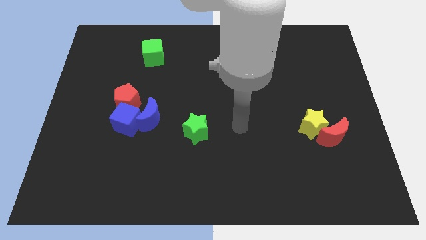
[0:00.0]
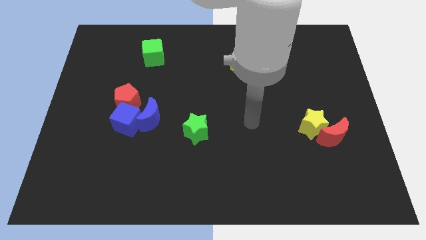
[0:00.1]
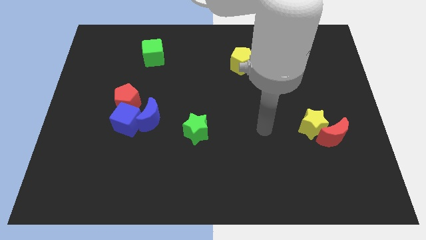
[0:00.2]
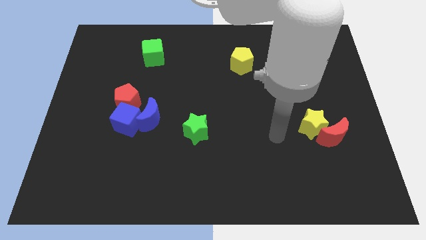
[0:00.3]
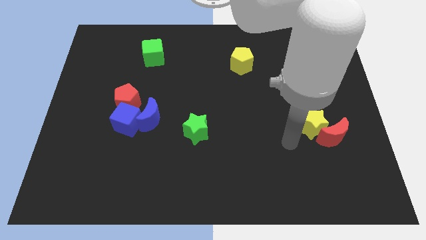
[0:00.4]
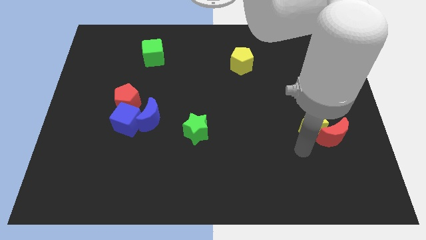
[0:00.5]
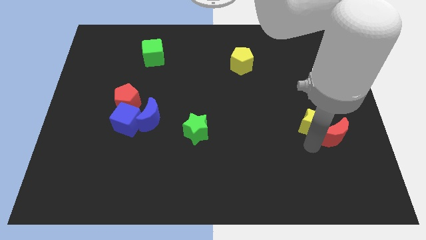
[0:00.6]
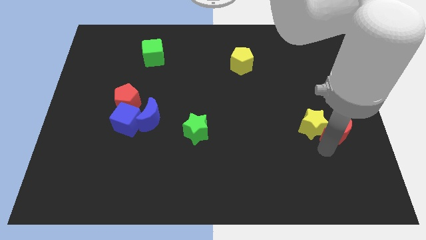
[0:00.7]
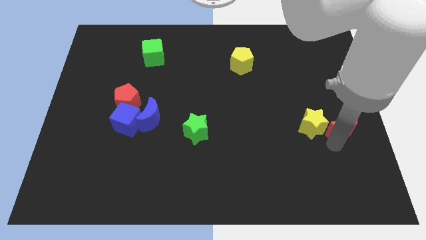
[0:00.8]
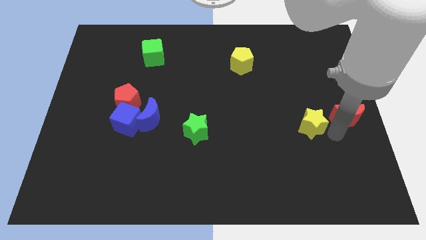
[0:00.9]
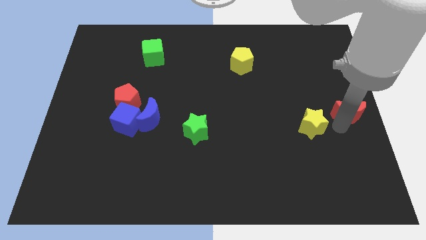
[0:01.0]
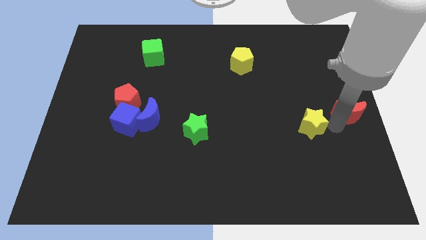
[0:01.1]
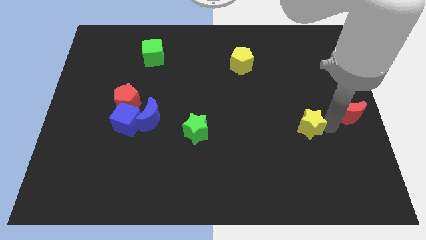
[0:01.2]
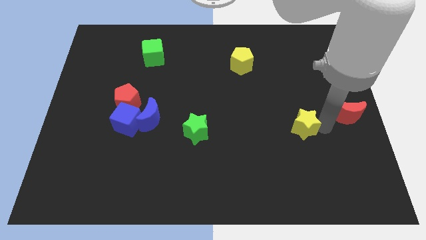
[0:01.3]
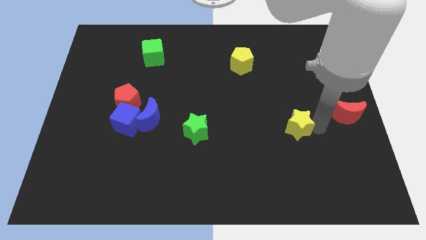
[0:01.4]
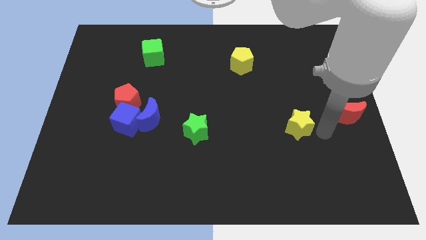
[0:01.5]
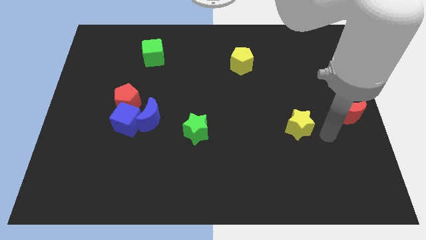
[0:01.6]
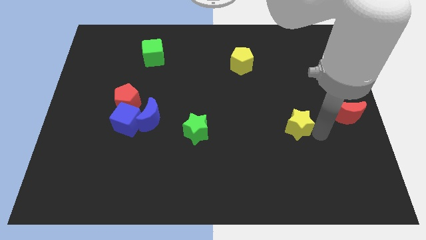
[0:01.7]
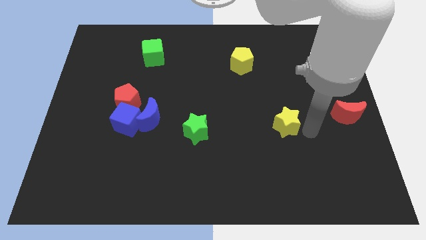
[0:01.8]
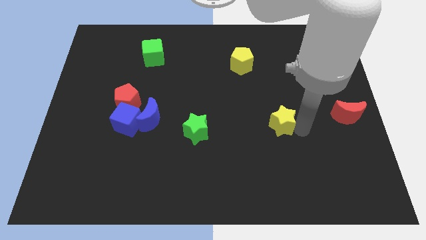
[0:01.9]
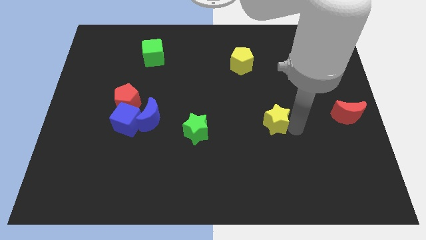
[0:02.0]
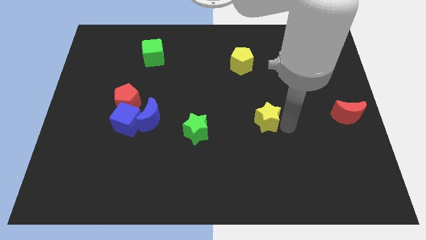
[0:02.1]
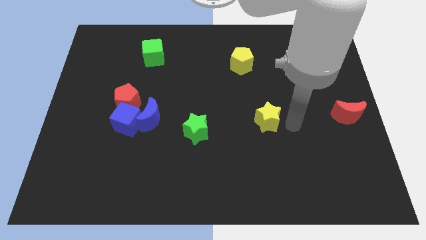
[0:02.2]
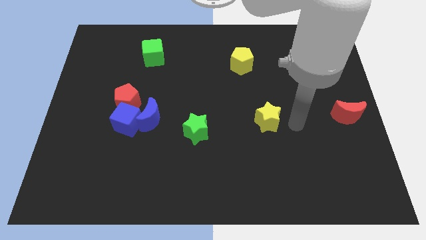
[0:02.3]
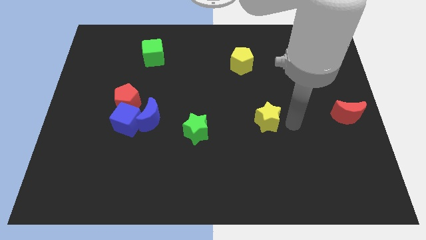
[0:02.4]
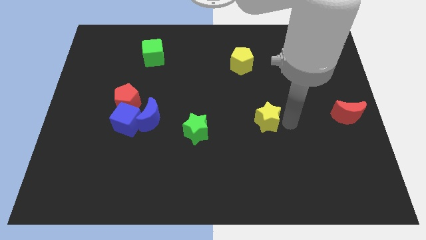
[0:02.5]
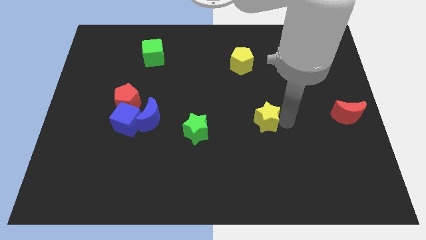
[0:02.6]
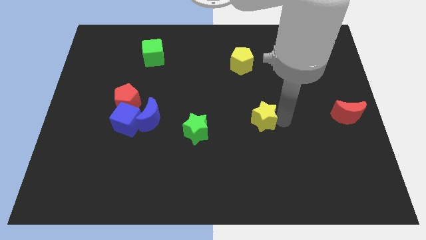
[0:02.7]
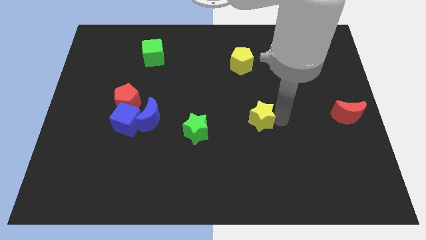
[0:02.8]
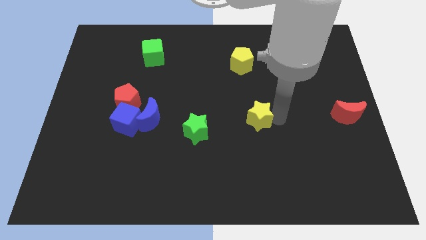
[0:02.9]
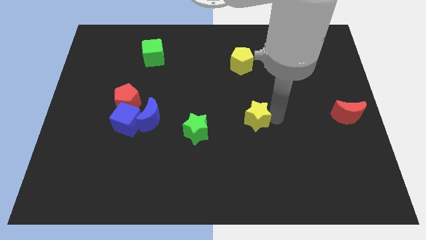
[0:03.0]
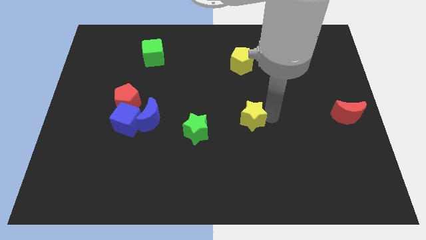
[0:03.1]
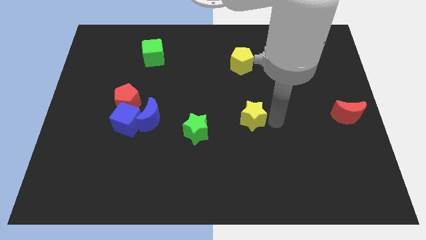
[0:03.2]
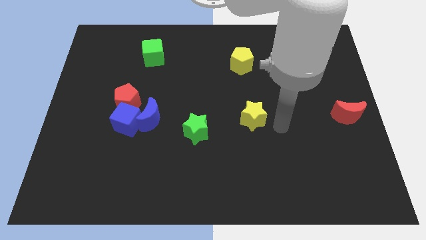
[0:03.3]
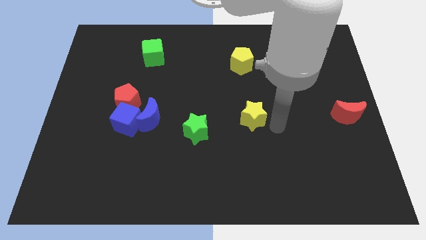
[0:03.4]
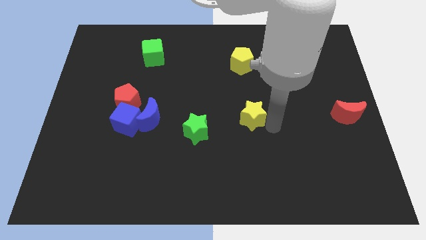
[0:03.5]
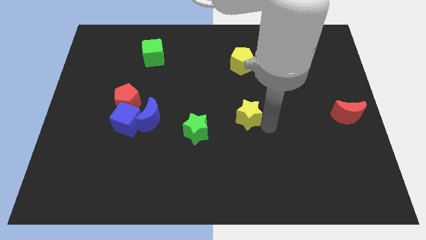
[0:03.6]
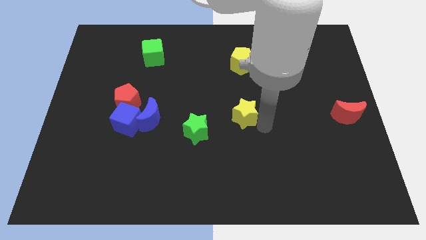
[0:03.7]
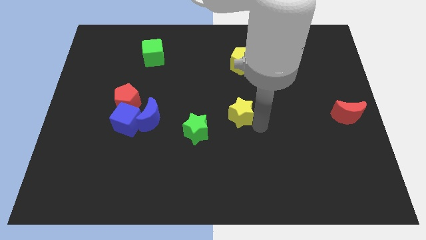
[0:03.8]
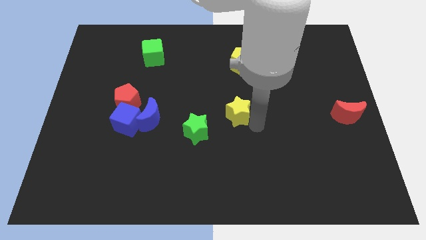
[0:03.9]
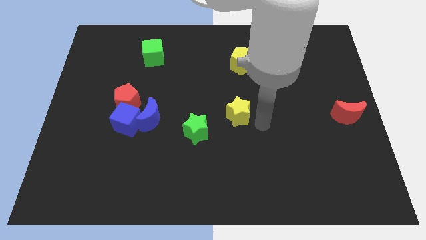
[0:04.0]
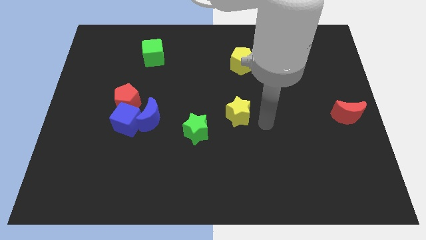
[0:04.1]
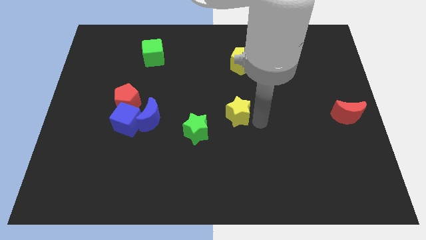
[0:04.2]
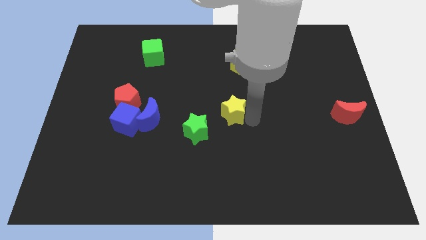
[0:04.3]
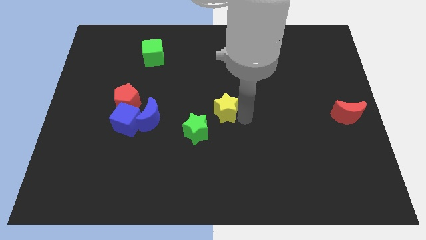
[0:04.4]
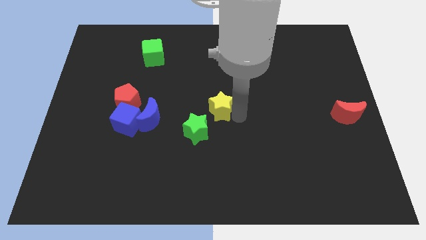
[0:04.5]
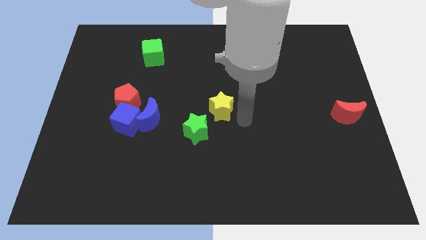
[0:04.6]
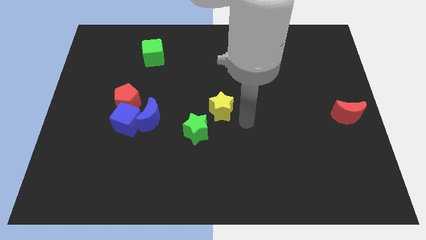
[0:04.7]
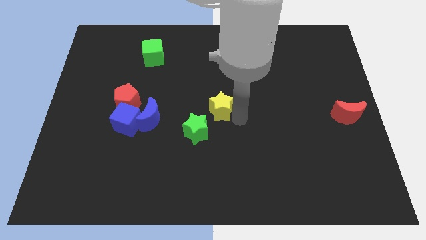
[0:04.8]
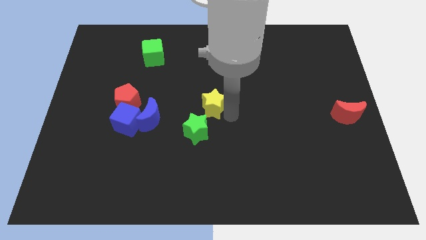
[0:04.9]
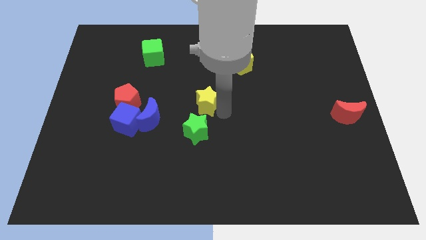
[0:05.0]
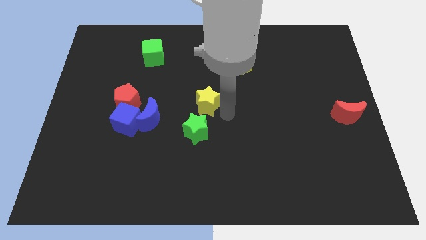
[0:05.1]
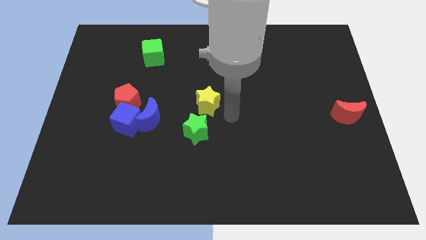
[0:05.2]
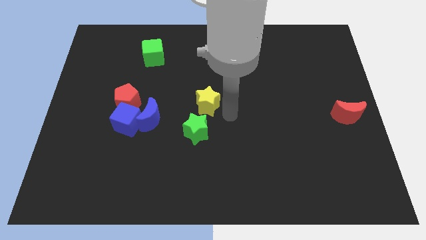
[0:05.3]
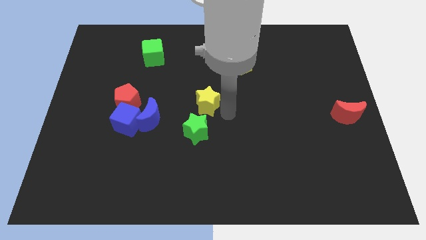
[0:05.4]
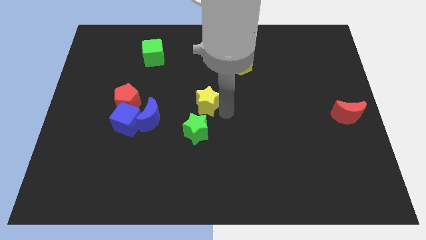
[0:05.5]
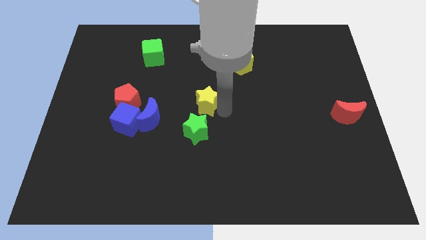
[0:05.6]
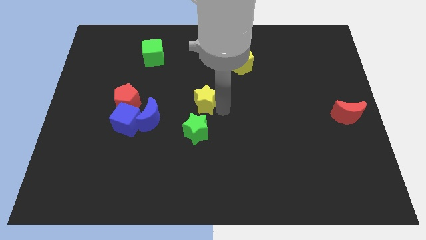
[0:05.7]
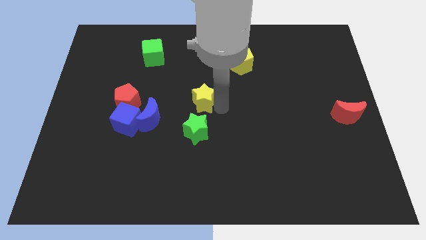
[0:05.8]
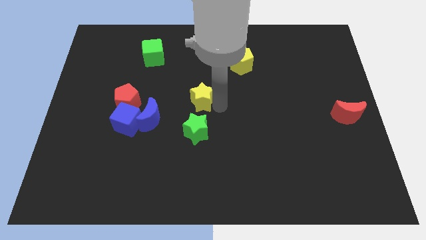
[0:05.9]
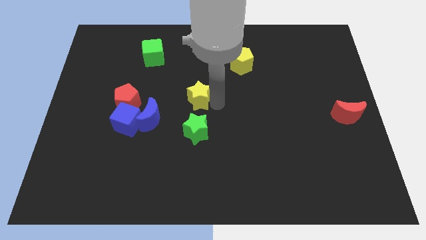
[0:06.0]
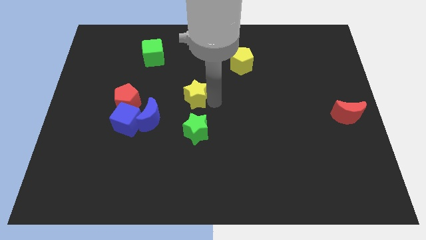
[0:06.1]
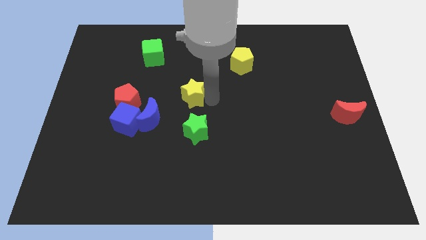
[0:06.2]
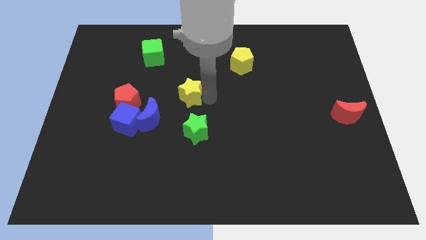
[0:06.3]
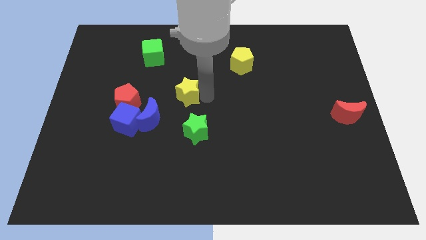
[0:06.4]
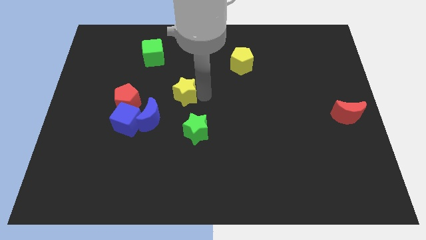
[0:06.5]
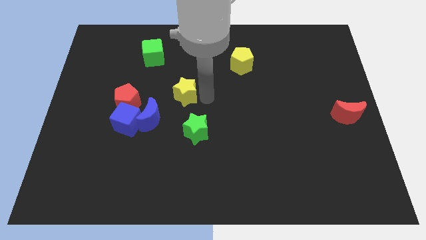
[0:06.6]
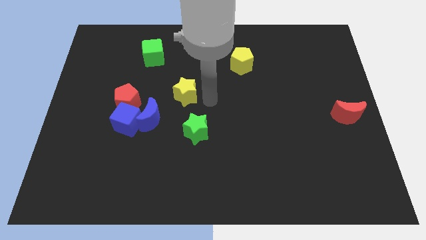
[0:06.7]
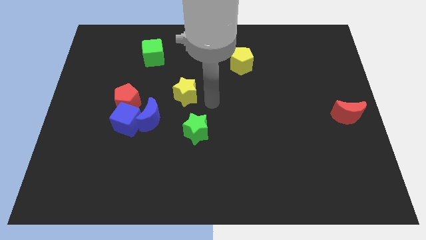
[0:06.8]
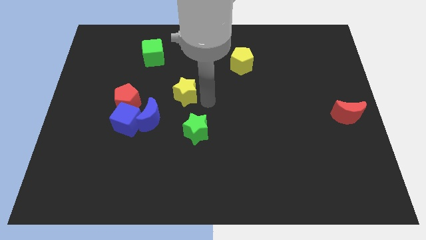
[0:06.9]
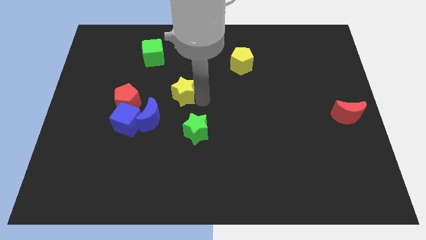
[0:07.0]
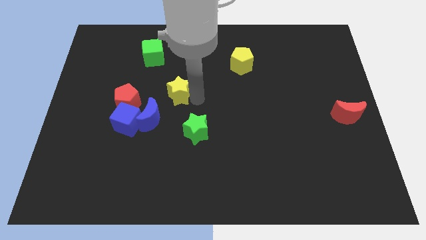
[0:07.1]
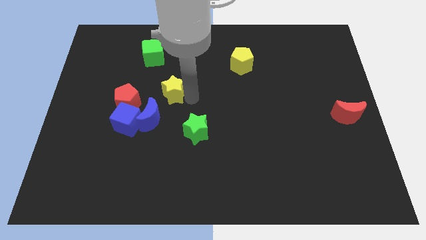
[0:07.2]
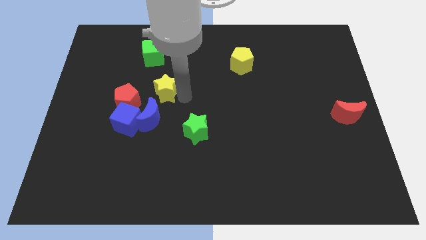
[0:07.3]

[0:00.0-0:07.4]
push the yellow star to the bottom side of the green cube
